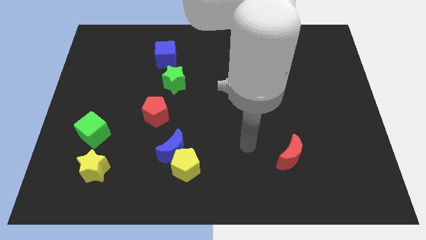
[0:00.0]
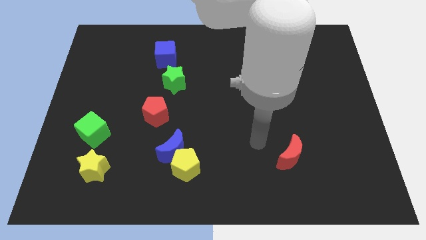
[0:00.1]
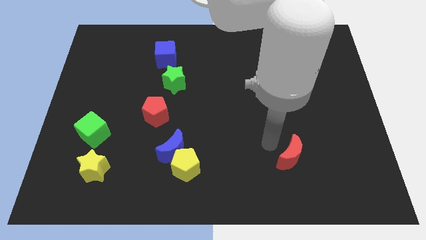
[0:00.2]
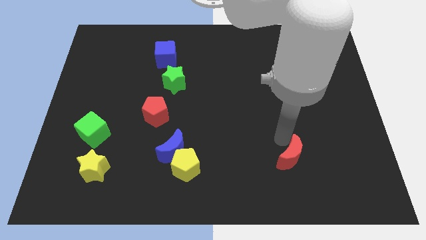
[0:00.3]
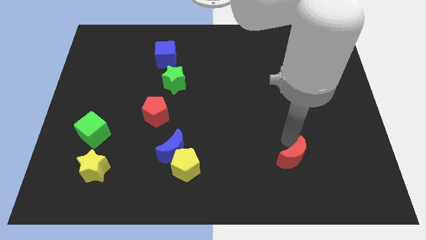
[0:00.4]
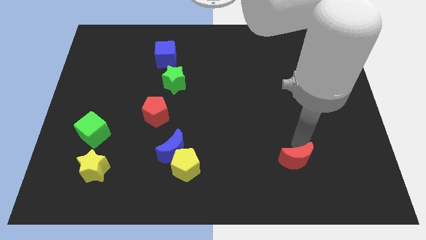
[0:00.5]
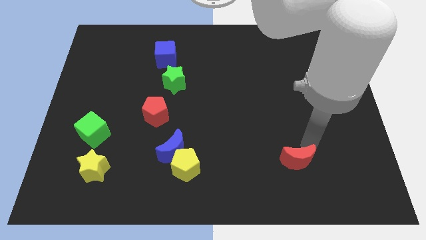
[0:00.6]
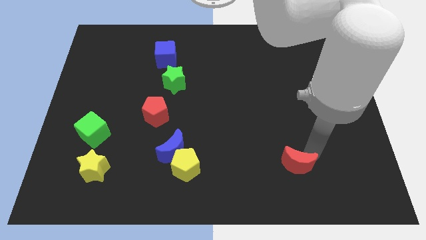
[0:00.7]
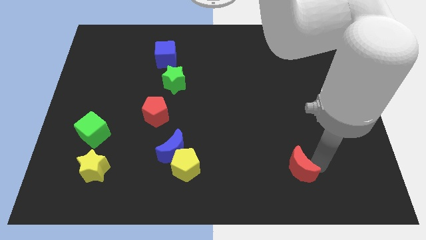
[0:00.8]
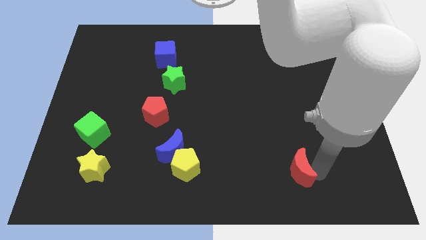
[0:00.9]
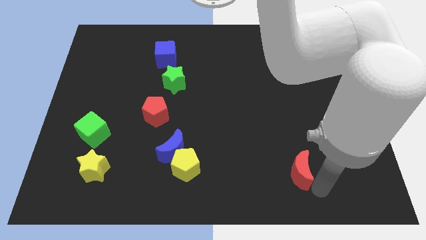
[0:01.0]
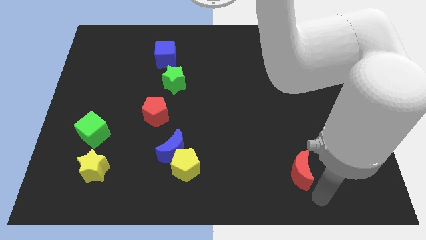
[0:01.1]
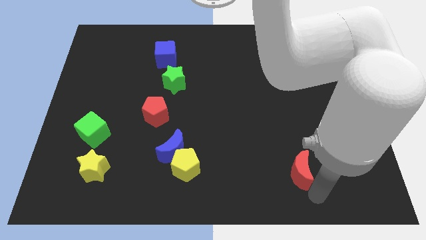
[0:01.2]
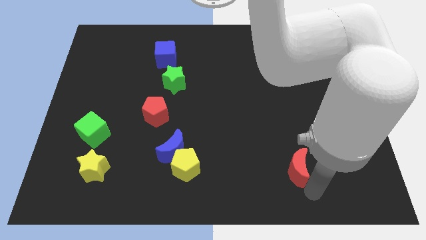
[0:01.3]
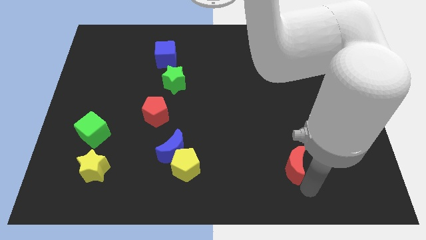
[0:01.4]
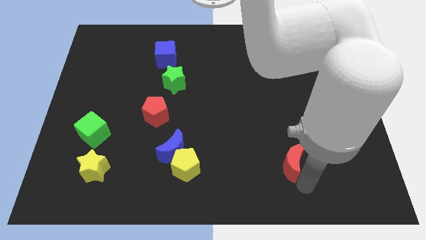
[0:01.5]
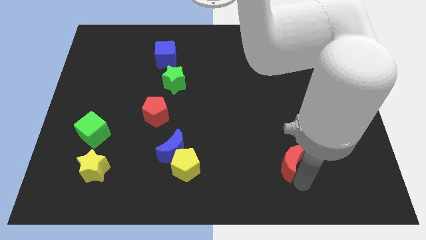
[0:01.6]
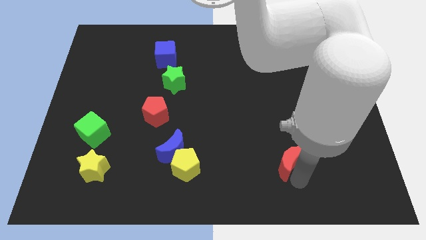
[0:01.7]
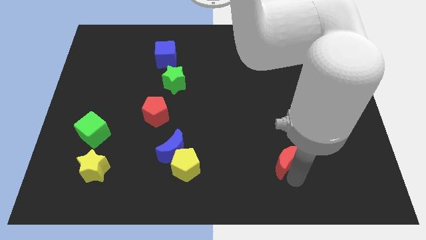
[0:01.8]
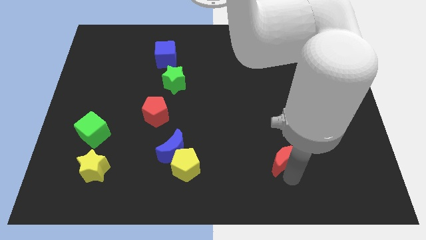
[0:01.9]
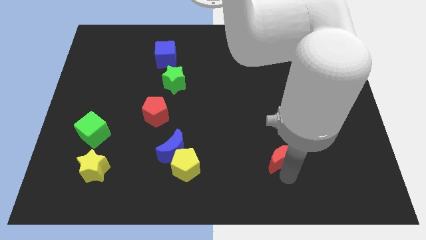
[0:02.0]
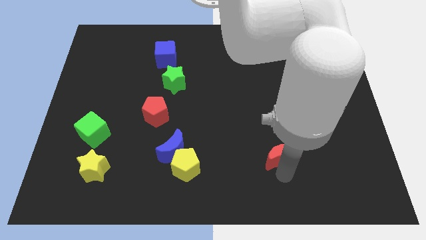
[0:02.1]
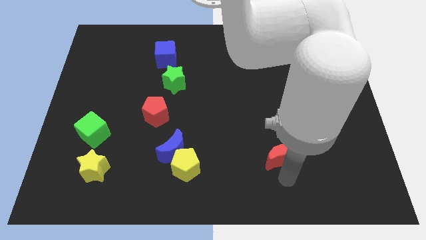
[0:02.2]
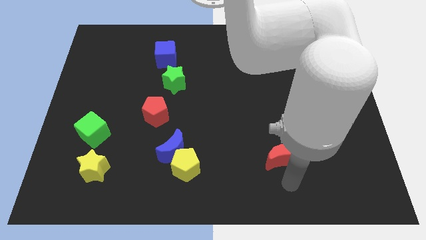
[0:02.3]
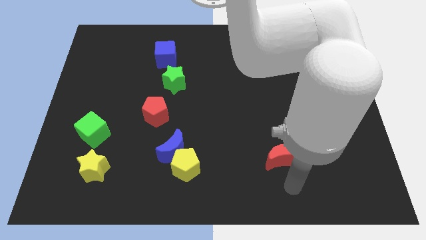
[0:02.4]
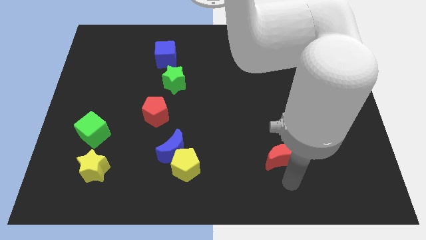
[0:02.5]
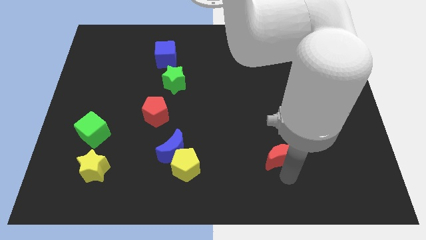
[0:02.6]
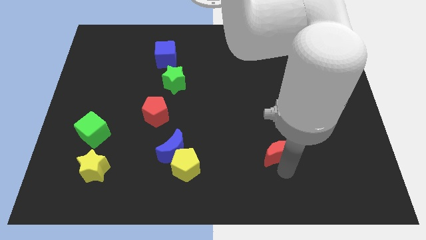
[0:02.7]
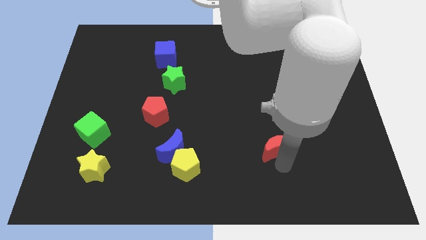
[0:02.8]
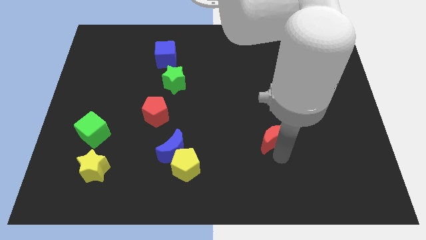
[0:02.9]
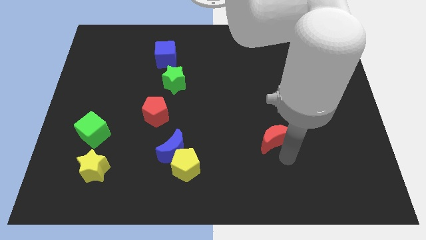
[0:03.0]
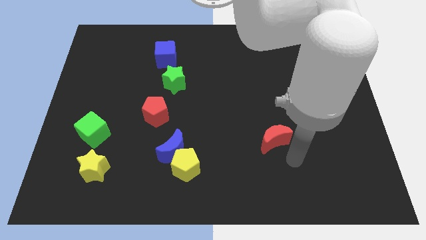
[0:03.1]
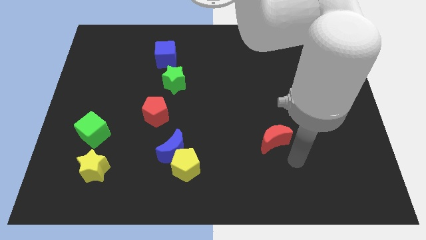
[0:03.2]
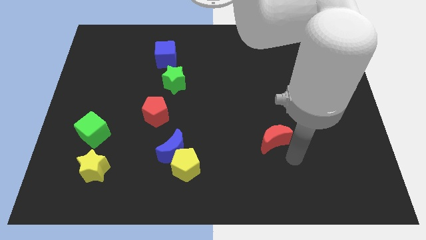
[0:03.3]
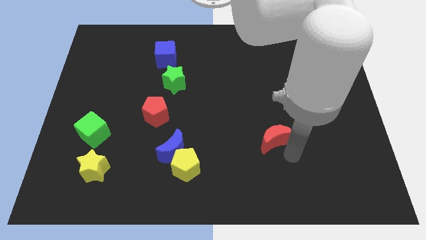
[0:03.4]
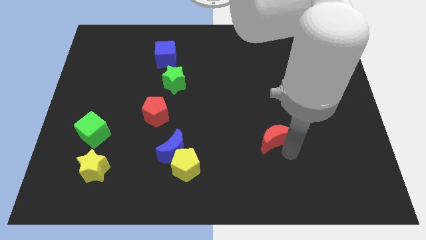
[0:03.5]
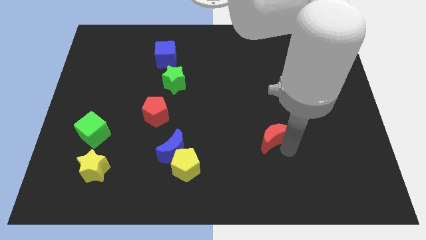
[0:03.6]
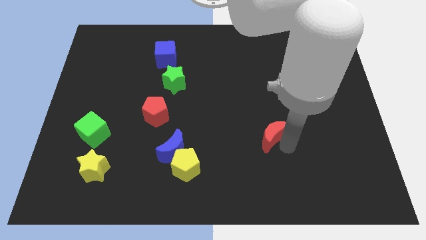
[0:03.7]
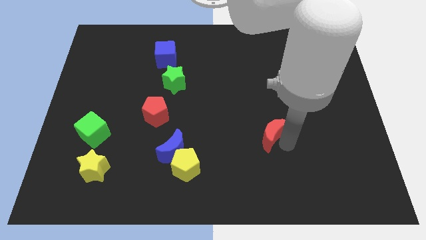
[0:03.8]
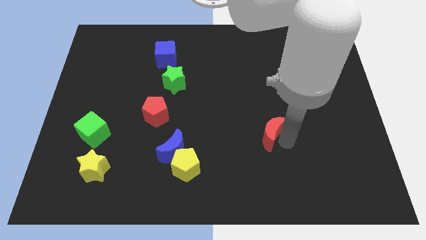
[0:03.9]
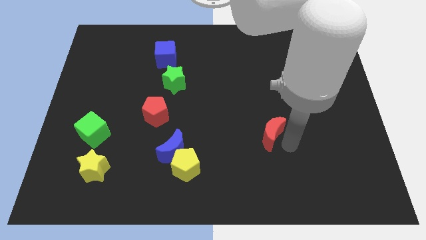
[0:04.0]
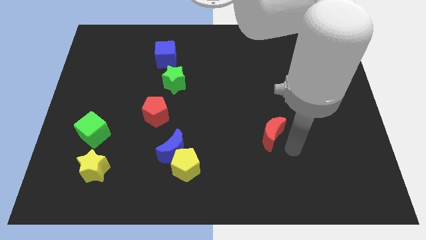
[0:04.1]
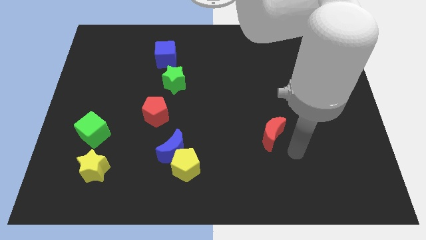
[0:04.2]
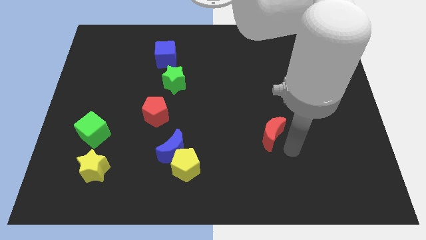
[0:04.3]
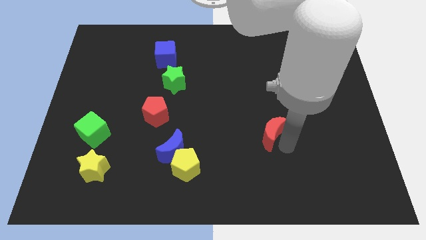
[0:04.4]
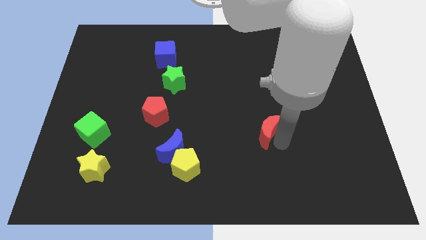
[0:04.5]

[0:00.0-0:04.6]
push the red moon upwards and left diagonally somewhat

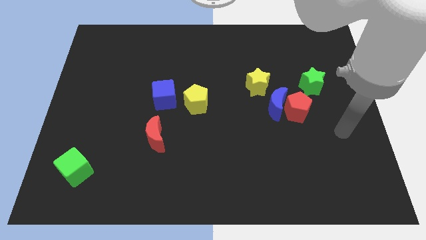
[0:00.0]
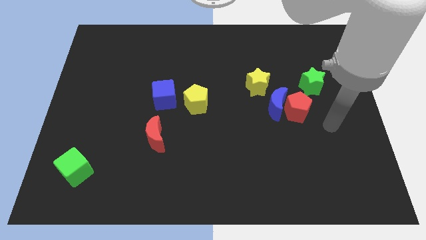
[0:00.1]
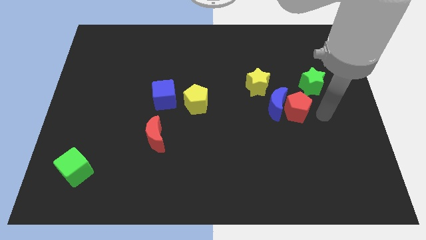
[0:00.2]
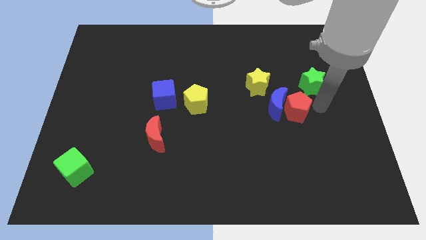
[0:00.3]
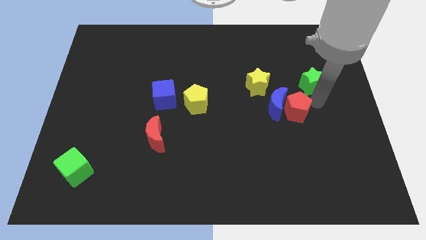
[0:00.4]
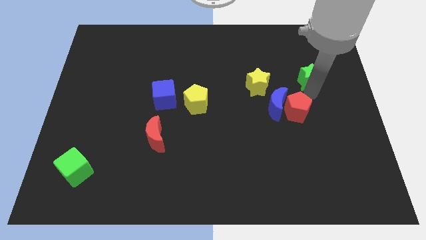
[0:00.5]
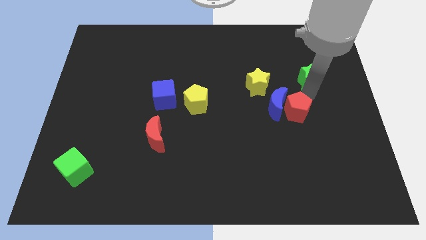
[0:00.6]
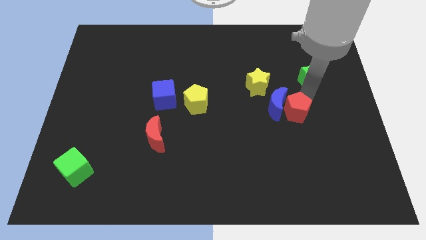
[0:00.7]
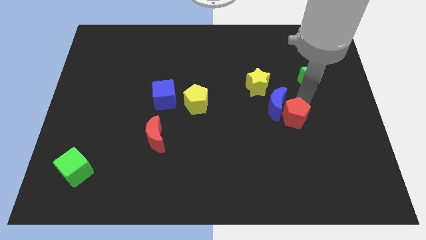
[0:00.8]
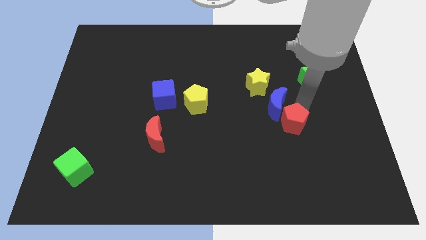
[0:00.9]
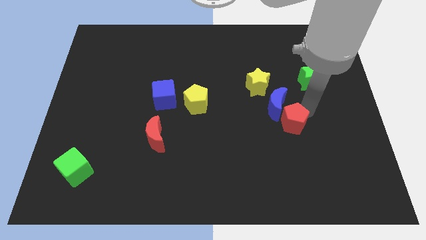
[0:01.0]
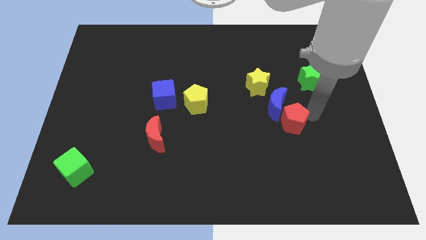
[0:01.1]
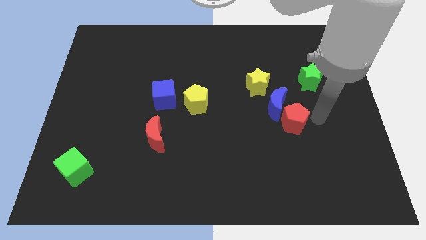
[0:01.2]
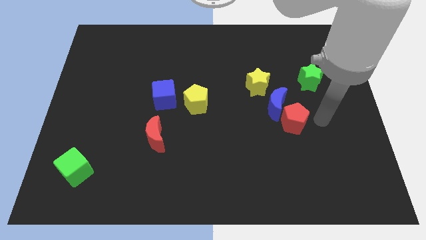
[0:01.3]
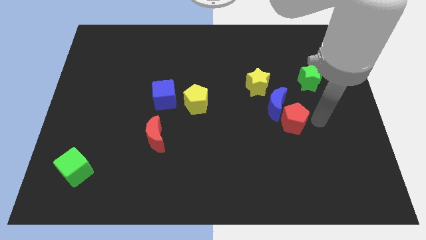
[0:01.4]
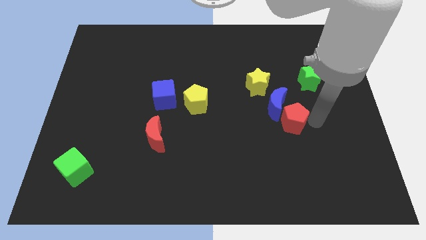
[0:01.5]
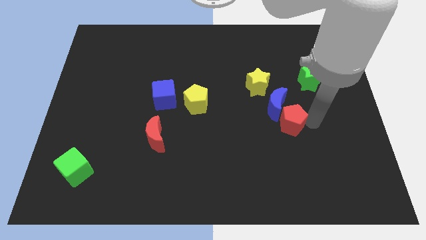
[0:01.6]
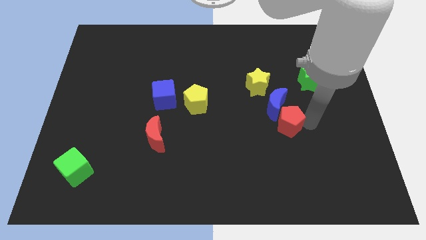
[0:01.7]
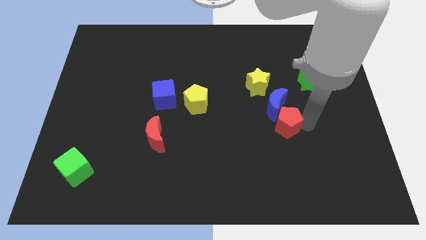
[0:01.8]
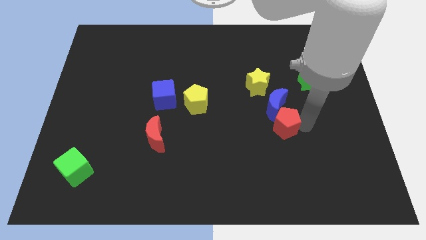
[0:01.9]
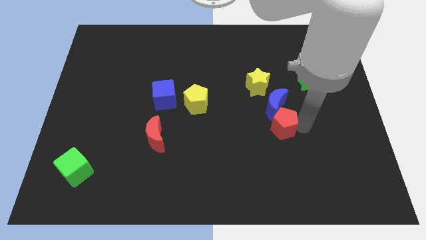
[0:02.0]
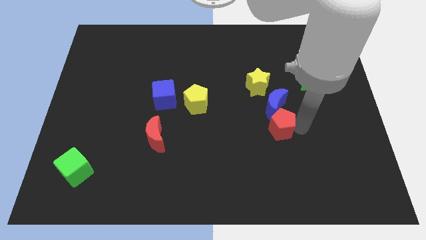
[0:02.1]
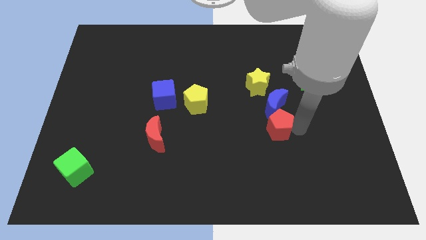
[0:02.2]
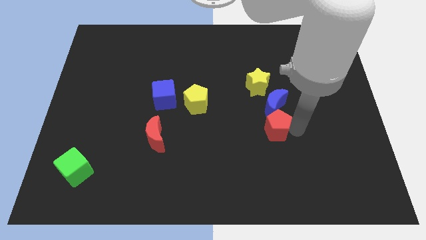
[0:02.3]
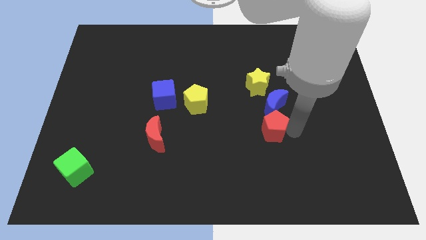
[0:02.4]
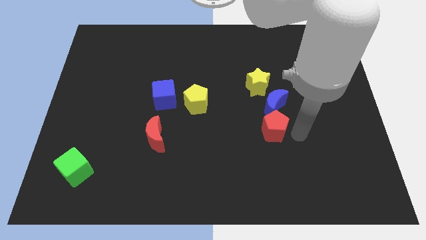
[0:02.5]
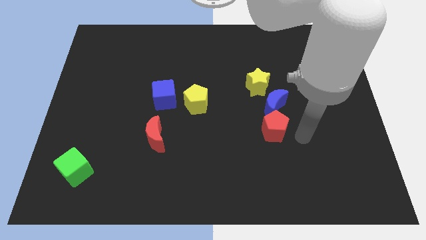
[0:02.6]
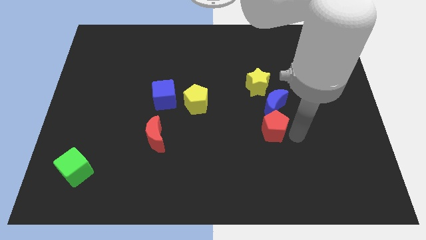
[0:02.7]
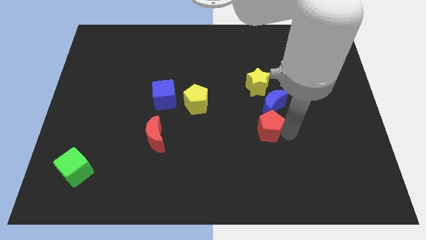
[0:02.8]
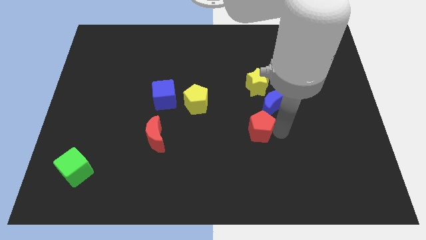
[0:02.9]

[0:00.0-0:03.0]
move the red pentagon to the left a little bit

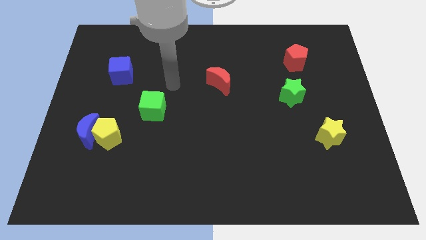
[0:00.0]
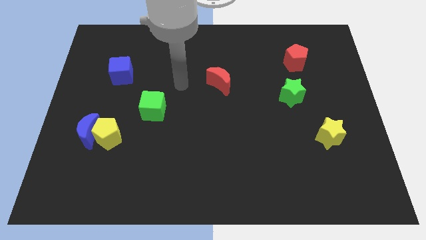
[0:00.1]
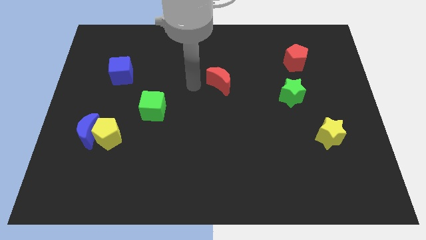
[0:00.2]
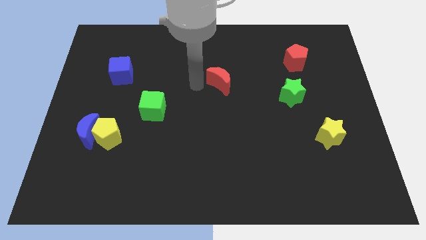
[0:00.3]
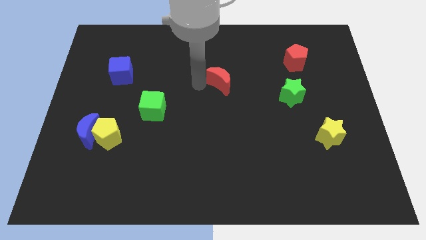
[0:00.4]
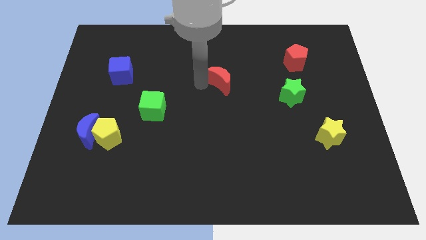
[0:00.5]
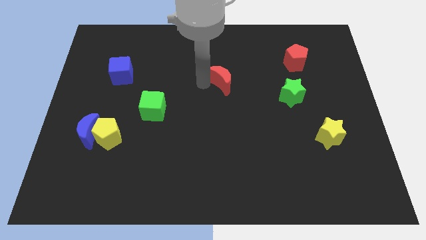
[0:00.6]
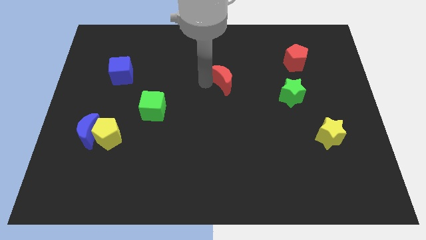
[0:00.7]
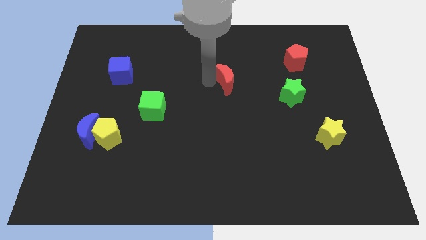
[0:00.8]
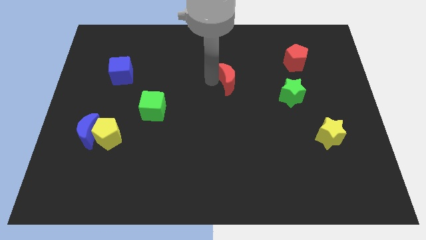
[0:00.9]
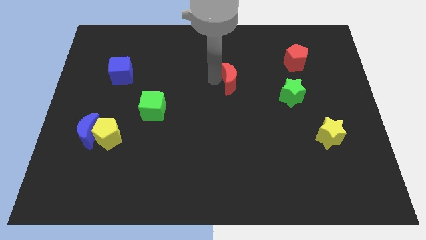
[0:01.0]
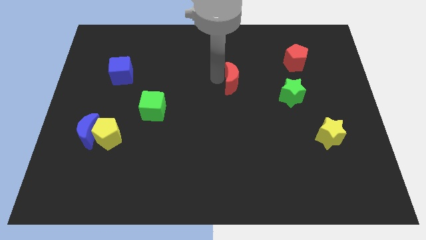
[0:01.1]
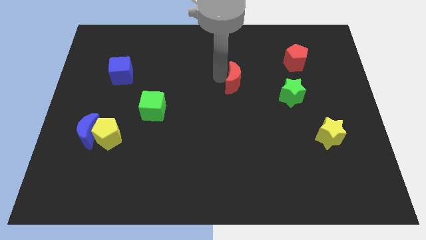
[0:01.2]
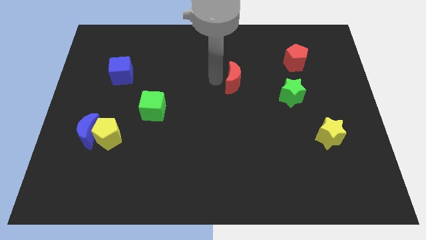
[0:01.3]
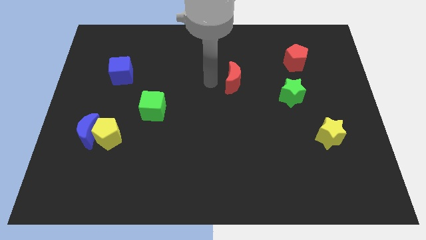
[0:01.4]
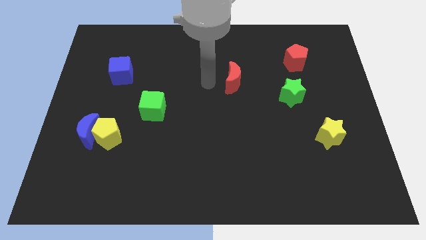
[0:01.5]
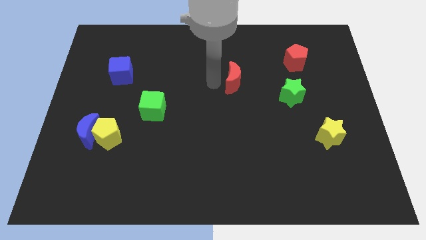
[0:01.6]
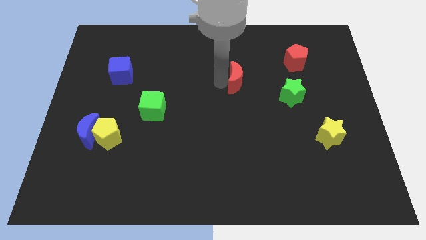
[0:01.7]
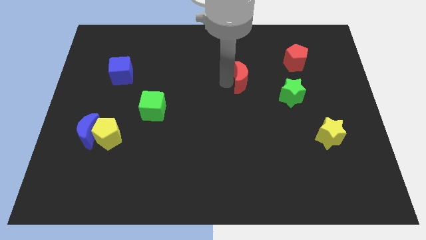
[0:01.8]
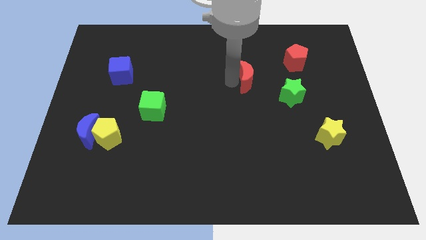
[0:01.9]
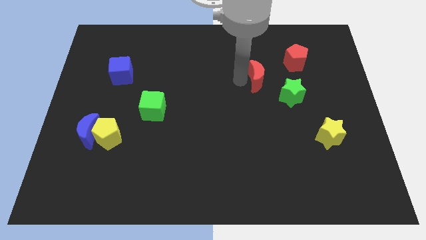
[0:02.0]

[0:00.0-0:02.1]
slide the red moon a little right
